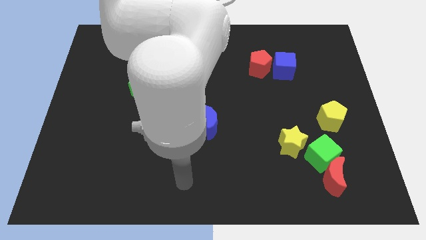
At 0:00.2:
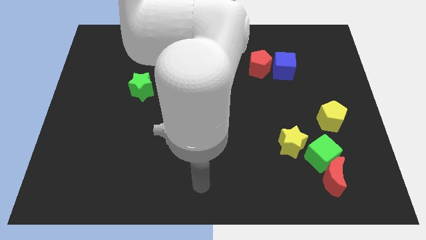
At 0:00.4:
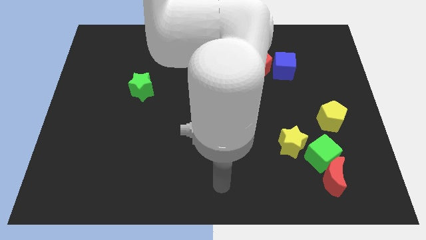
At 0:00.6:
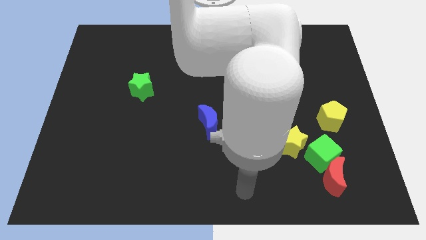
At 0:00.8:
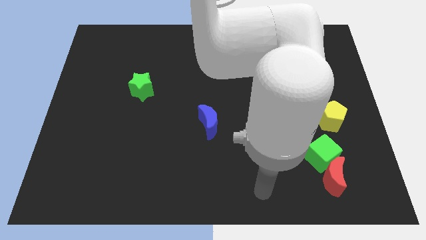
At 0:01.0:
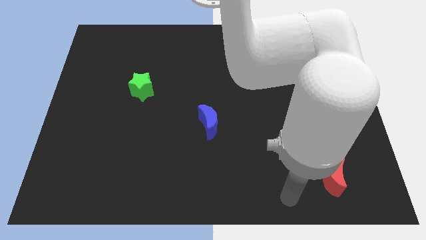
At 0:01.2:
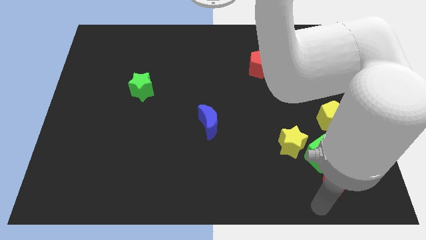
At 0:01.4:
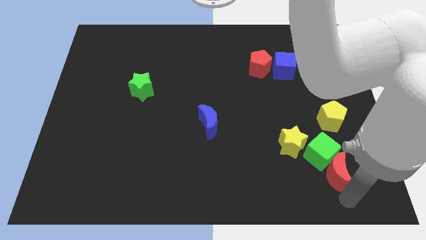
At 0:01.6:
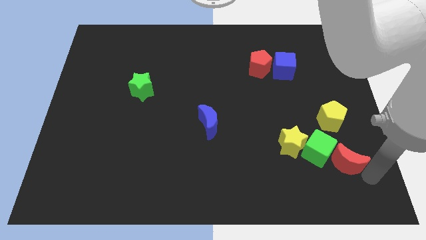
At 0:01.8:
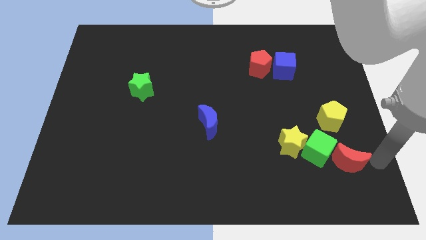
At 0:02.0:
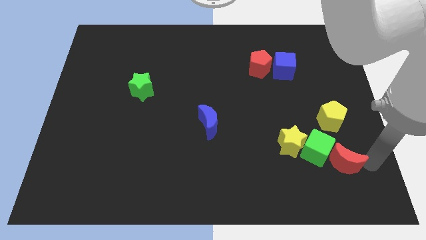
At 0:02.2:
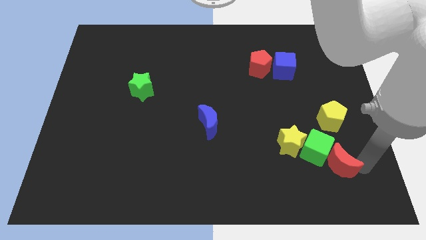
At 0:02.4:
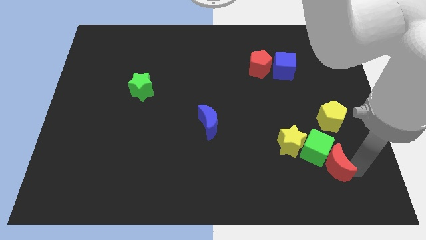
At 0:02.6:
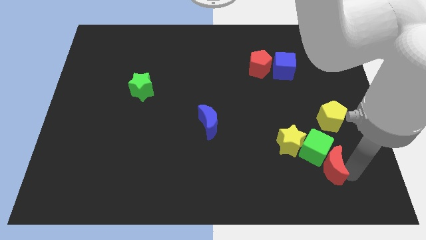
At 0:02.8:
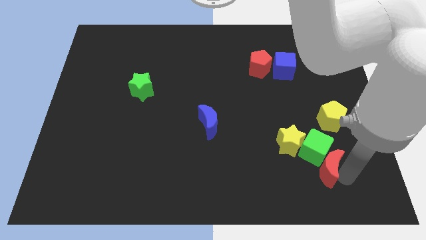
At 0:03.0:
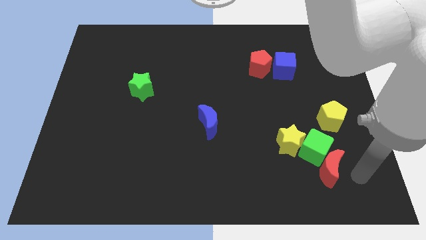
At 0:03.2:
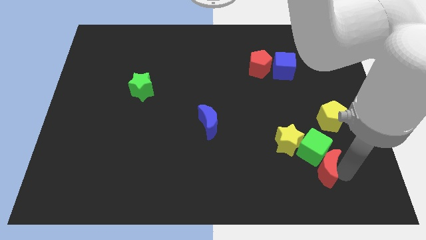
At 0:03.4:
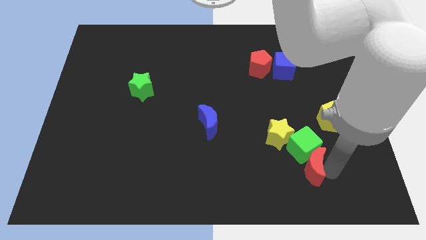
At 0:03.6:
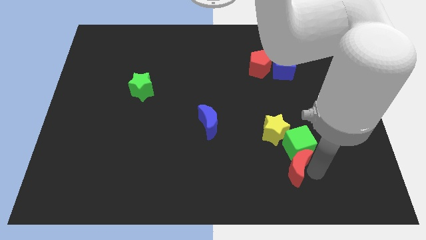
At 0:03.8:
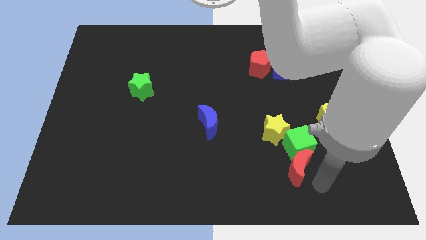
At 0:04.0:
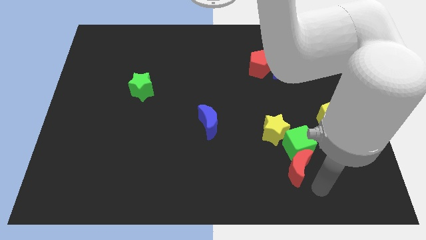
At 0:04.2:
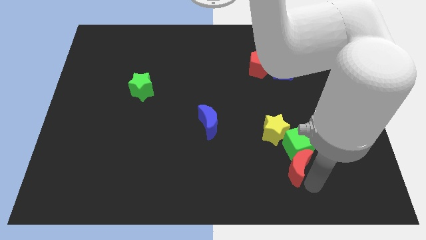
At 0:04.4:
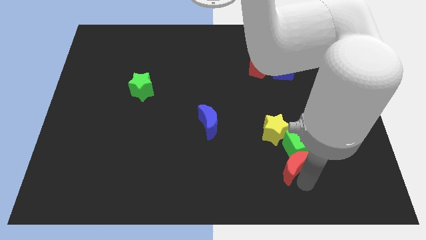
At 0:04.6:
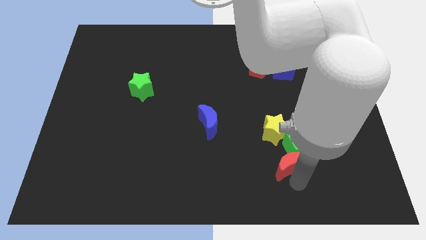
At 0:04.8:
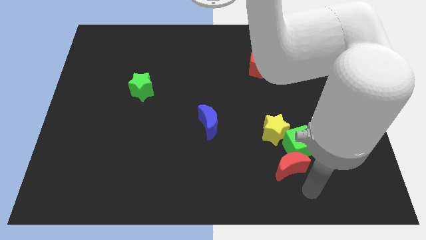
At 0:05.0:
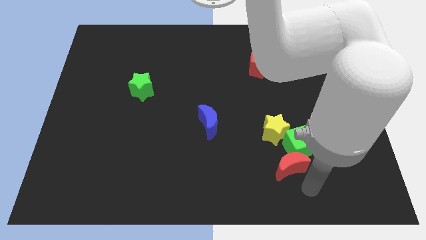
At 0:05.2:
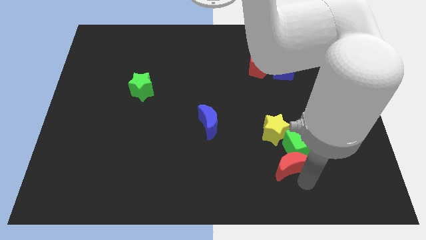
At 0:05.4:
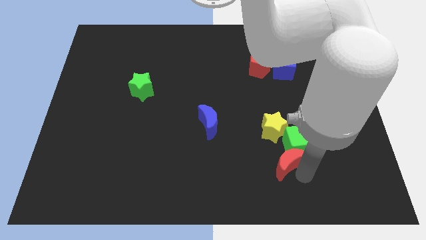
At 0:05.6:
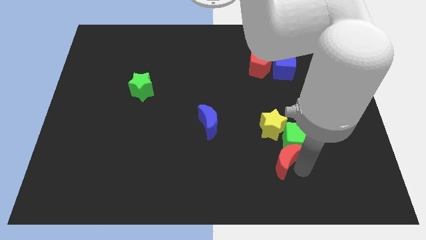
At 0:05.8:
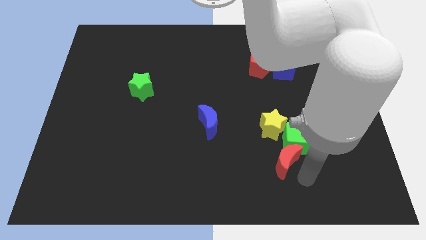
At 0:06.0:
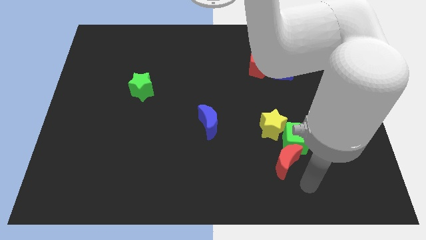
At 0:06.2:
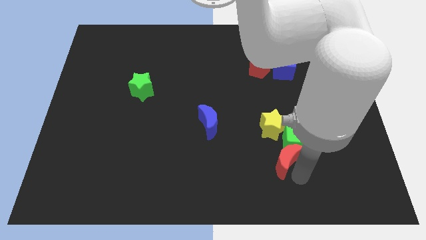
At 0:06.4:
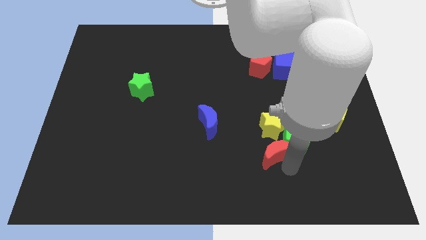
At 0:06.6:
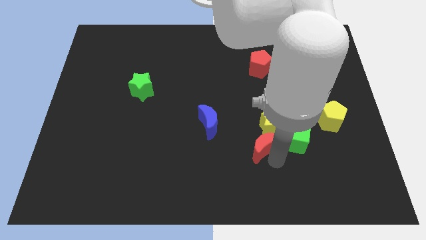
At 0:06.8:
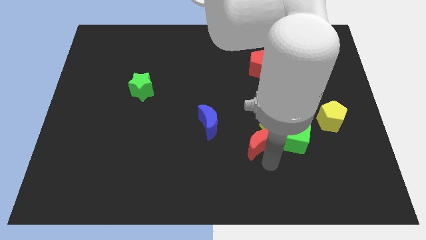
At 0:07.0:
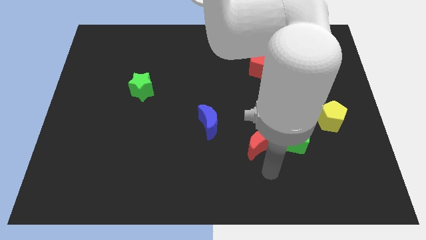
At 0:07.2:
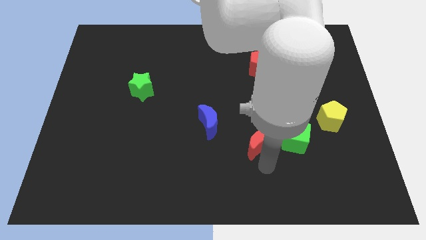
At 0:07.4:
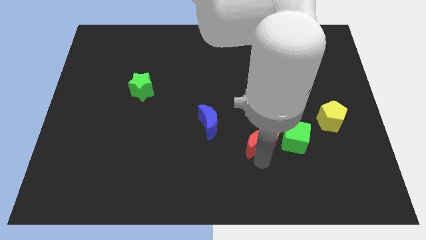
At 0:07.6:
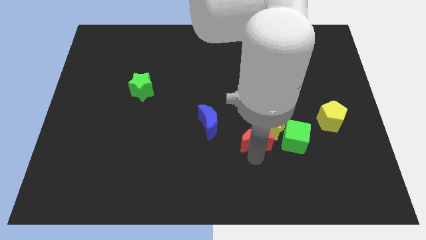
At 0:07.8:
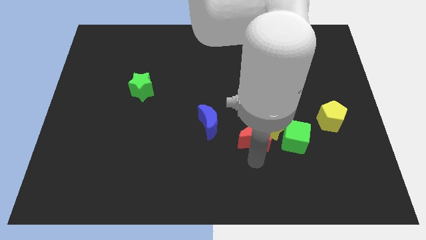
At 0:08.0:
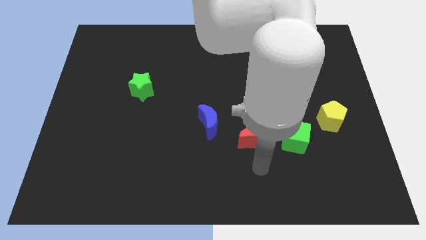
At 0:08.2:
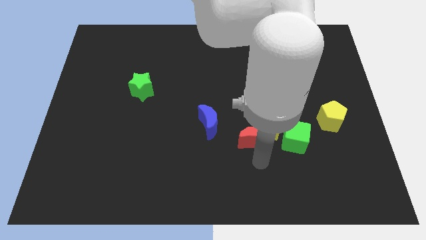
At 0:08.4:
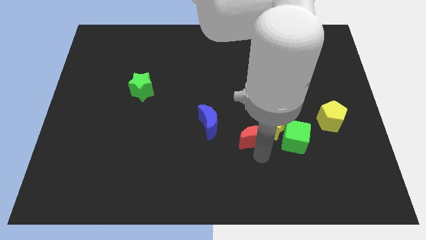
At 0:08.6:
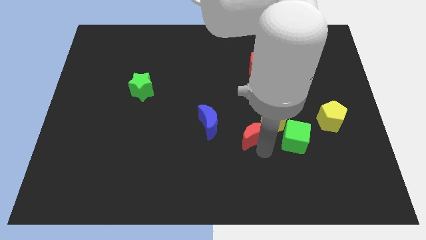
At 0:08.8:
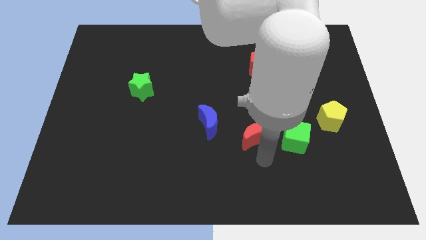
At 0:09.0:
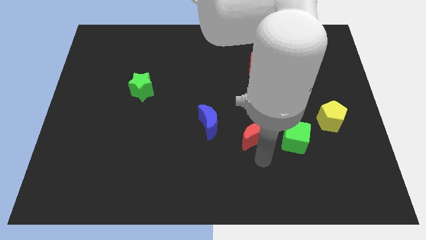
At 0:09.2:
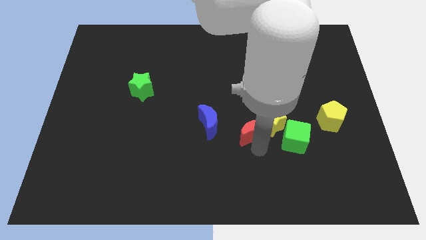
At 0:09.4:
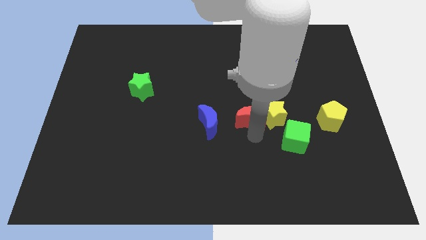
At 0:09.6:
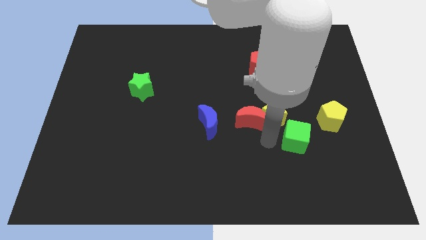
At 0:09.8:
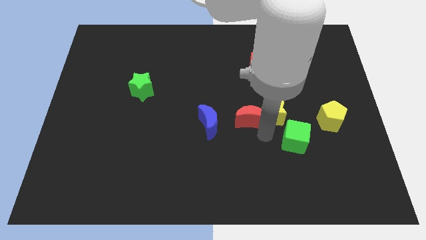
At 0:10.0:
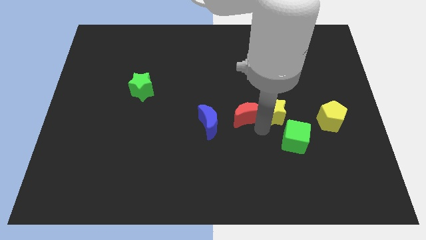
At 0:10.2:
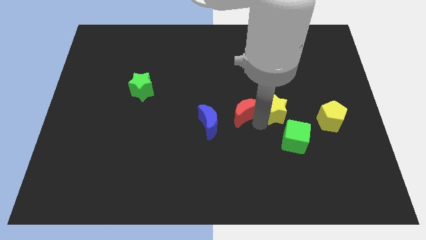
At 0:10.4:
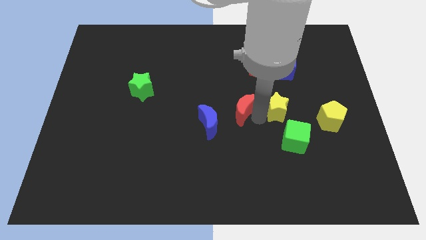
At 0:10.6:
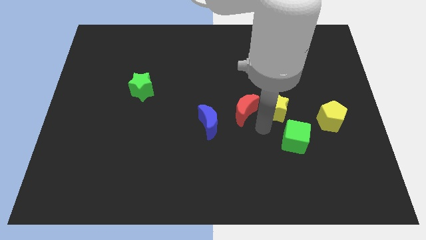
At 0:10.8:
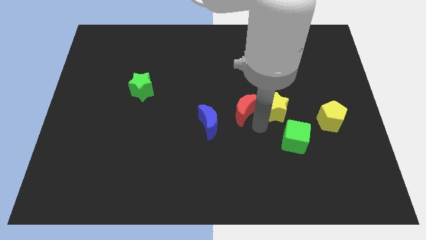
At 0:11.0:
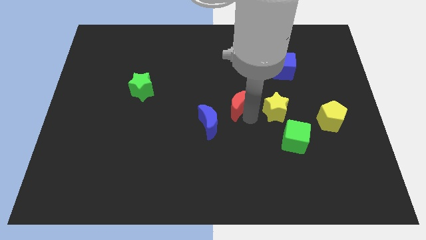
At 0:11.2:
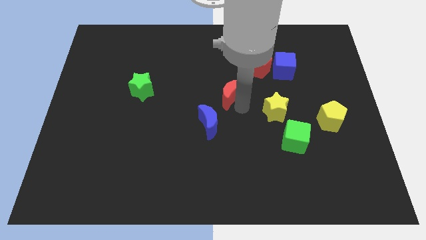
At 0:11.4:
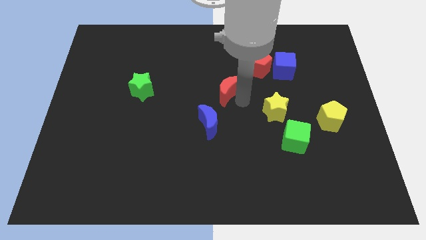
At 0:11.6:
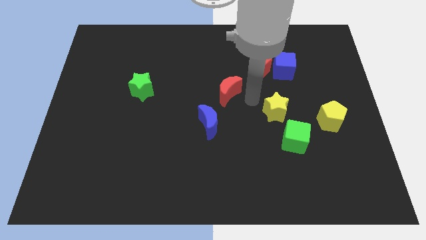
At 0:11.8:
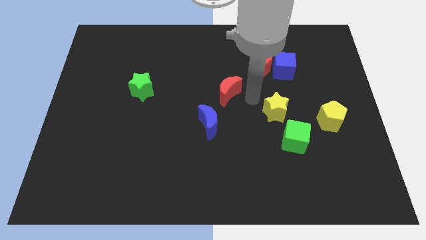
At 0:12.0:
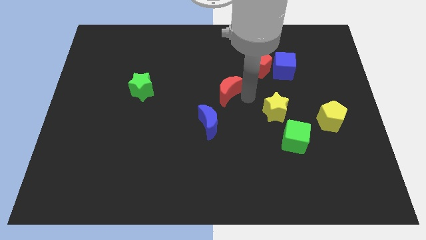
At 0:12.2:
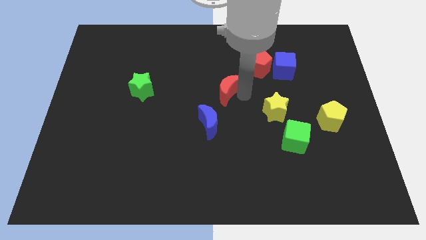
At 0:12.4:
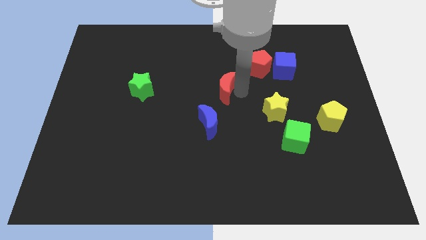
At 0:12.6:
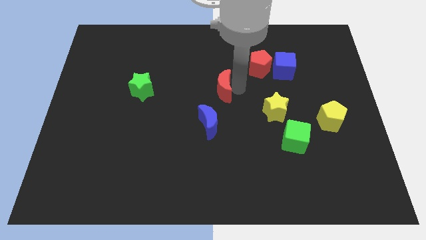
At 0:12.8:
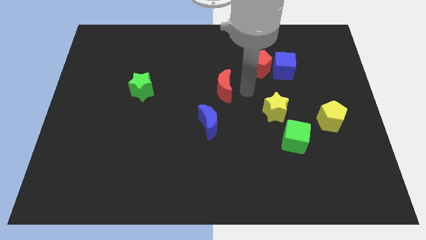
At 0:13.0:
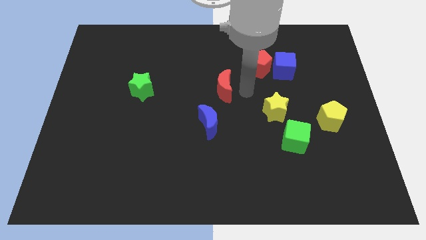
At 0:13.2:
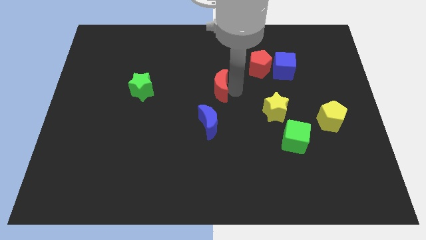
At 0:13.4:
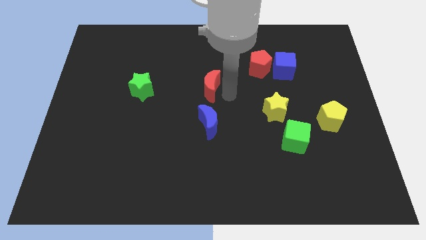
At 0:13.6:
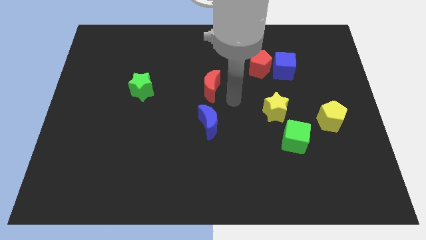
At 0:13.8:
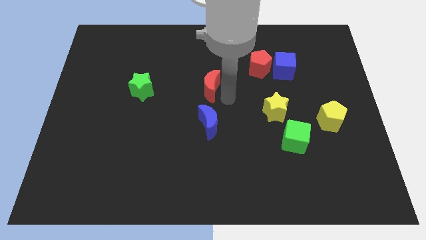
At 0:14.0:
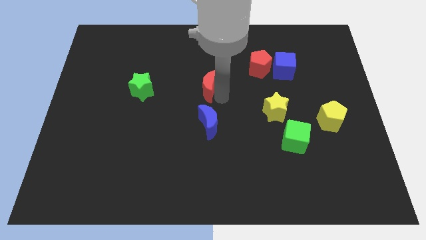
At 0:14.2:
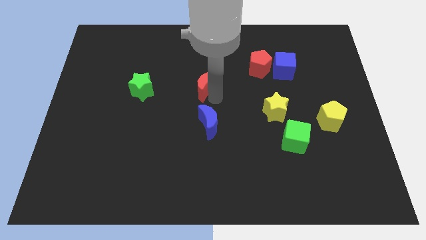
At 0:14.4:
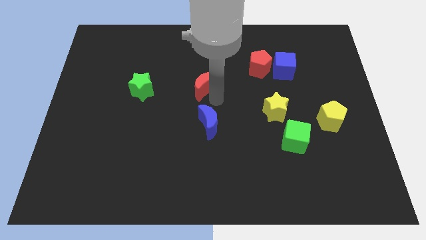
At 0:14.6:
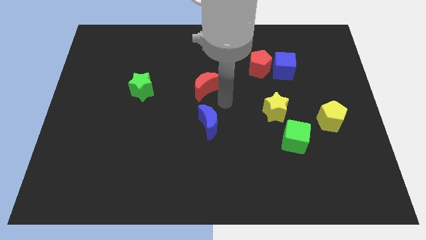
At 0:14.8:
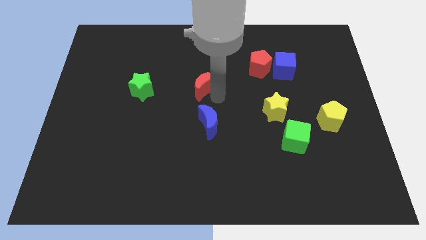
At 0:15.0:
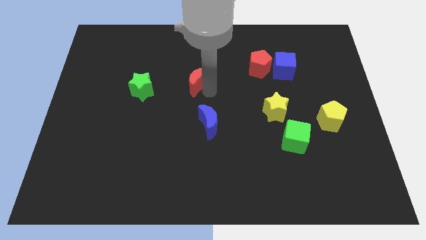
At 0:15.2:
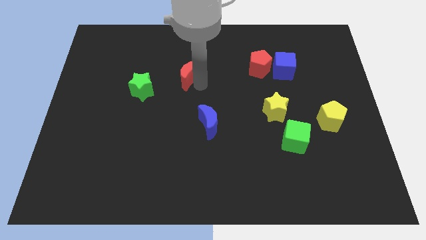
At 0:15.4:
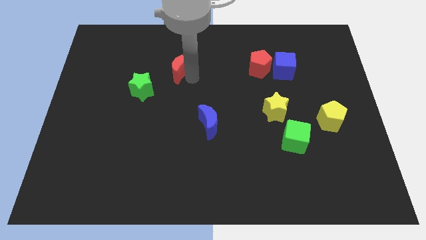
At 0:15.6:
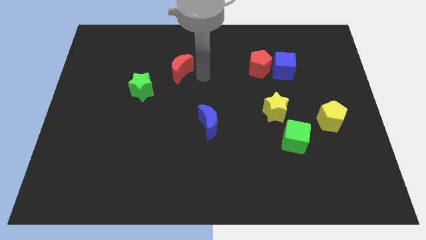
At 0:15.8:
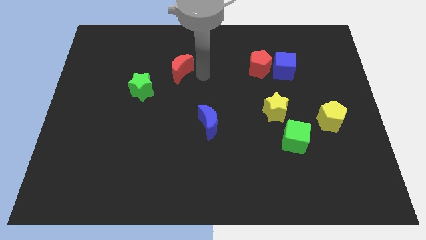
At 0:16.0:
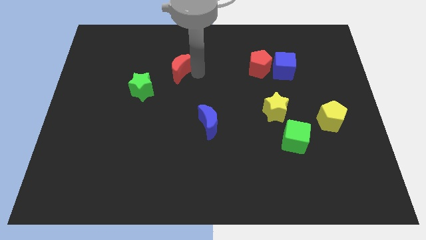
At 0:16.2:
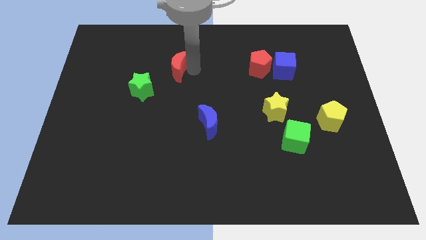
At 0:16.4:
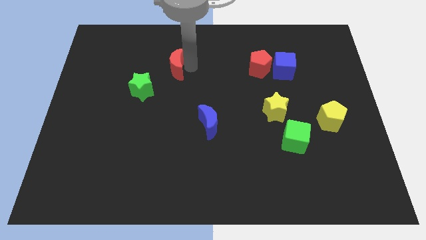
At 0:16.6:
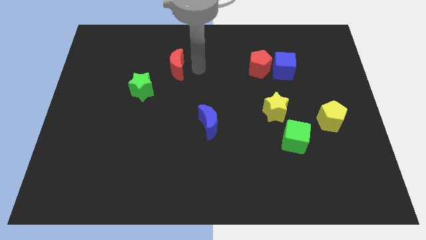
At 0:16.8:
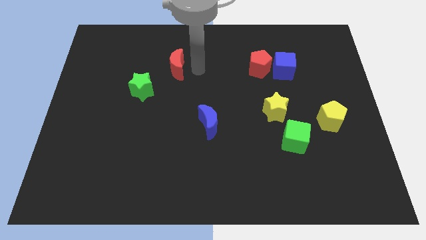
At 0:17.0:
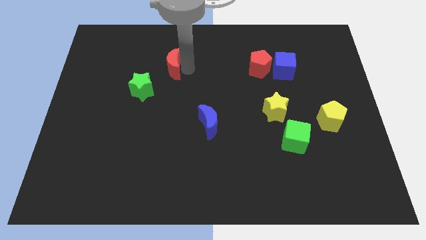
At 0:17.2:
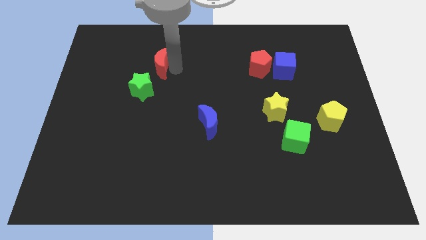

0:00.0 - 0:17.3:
slide the red moon to the top of the green star
